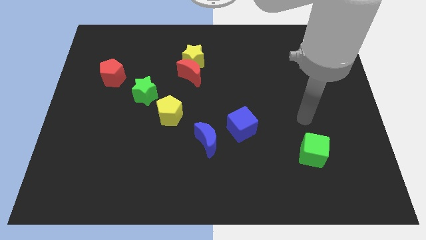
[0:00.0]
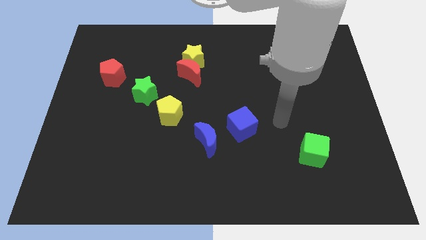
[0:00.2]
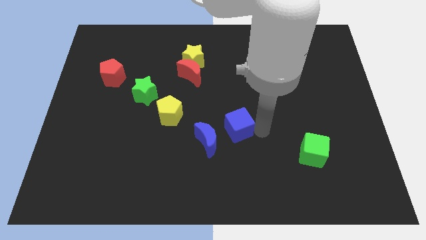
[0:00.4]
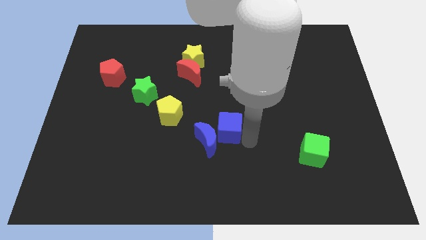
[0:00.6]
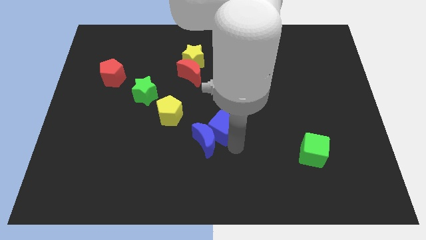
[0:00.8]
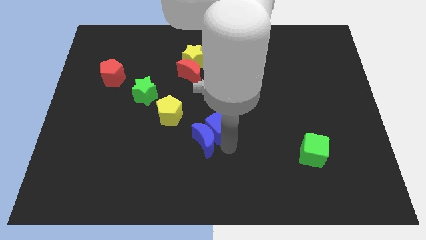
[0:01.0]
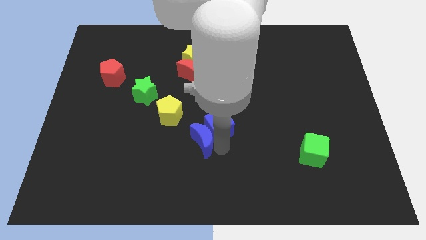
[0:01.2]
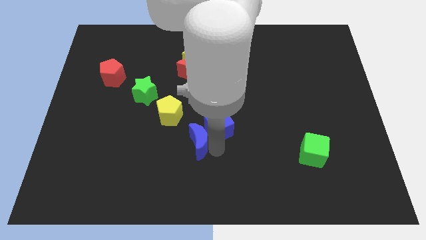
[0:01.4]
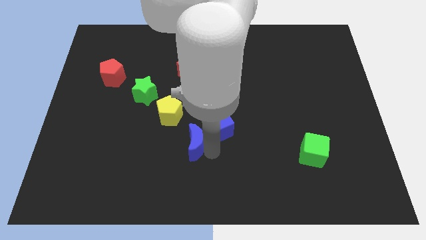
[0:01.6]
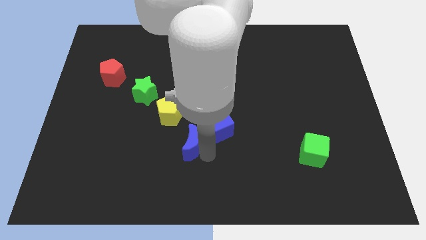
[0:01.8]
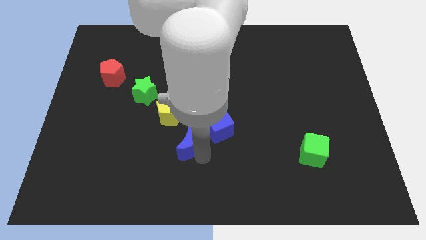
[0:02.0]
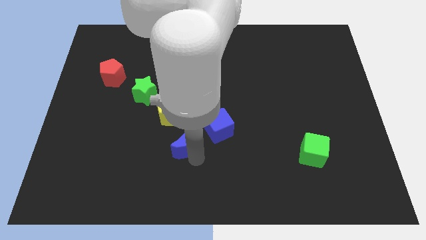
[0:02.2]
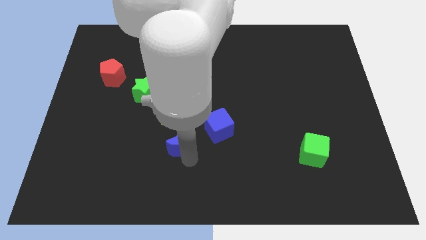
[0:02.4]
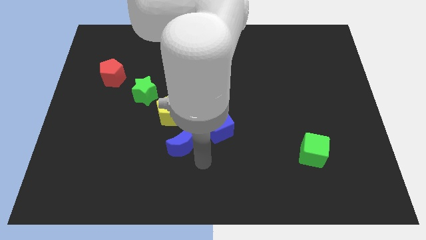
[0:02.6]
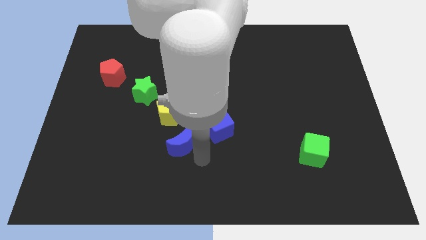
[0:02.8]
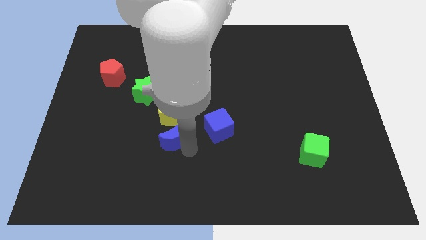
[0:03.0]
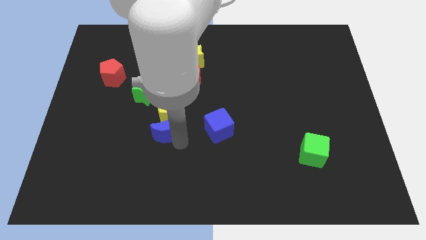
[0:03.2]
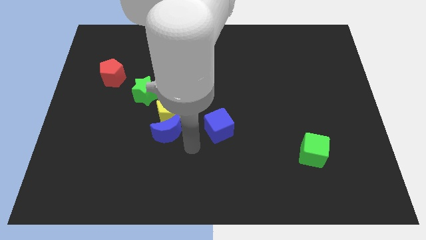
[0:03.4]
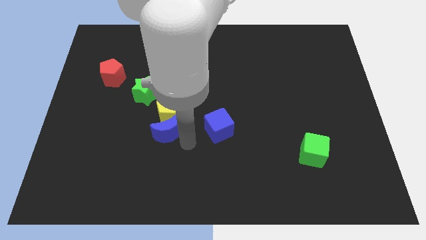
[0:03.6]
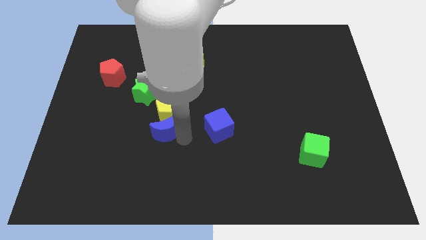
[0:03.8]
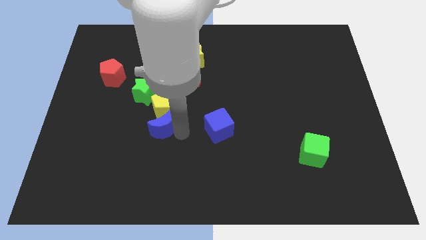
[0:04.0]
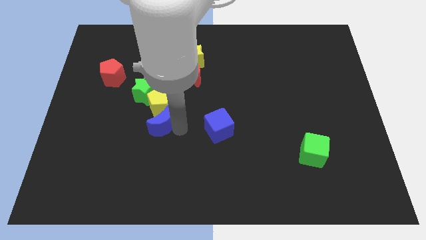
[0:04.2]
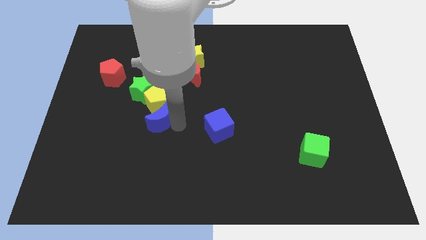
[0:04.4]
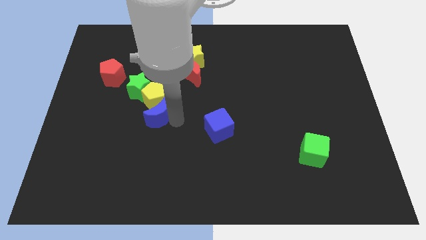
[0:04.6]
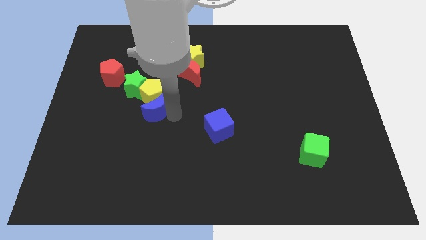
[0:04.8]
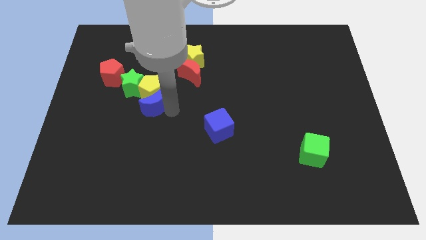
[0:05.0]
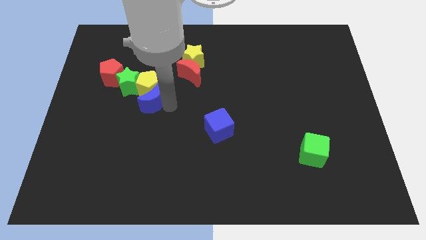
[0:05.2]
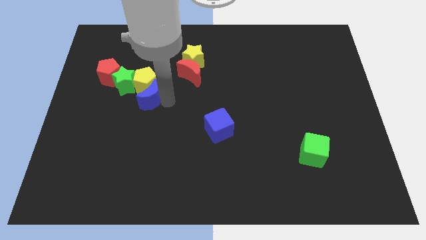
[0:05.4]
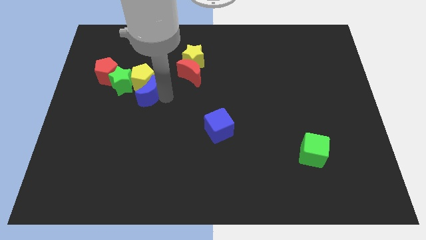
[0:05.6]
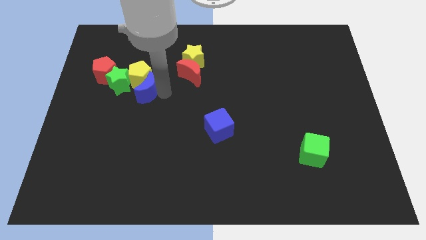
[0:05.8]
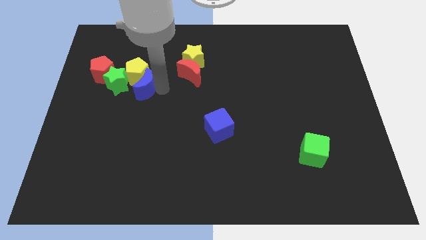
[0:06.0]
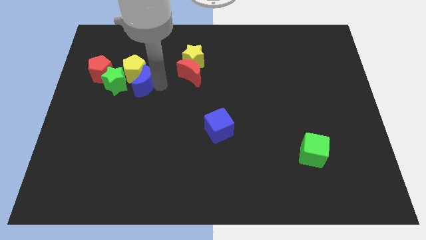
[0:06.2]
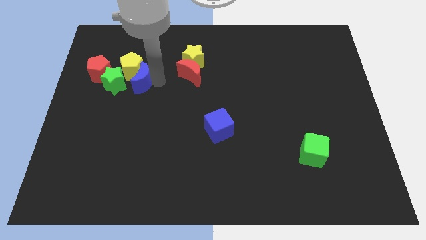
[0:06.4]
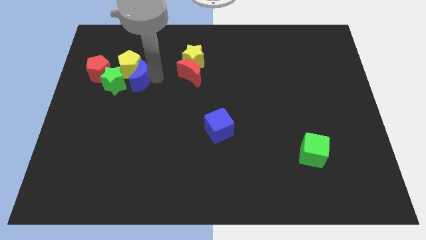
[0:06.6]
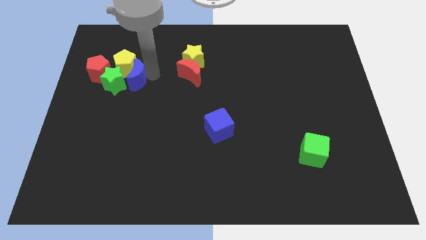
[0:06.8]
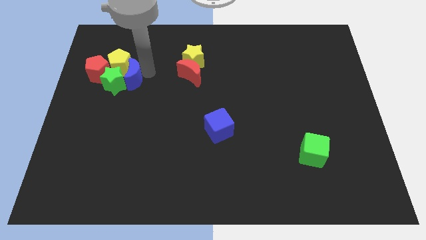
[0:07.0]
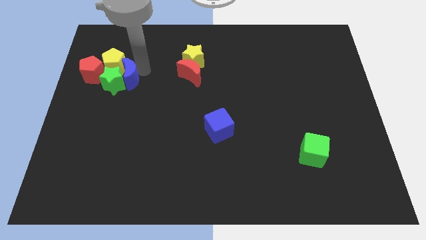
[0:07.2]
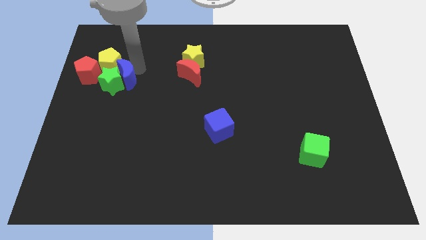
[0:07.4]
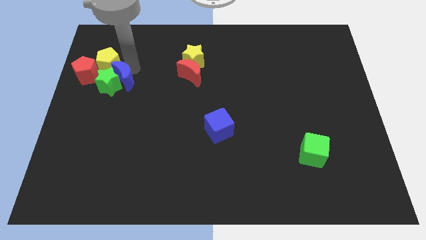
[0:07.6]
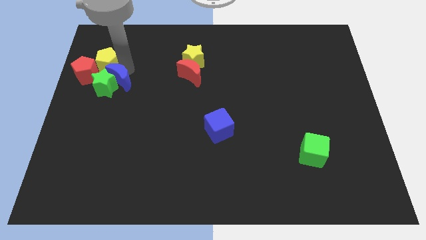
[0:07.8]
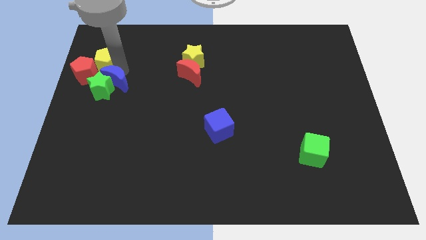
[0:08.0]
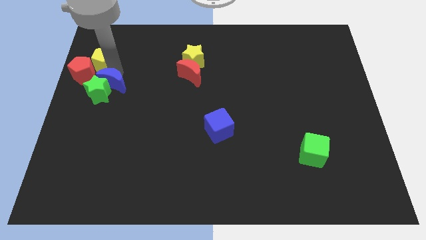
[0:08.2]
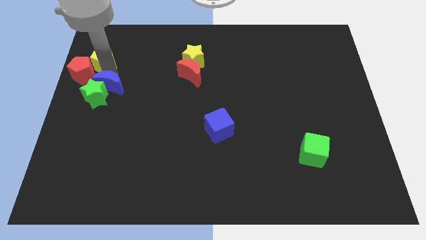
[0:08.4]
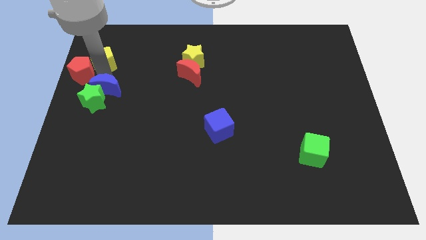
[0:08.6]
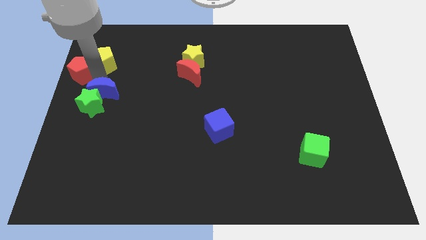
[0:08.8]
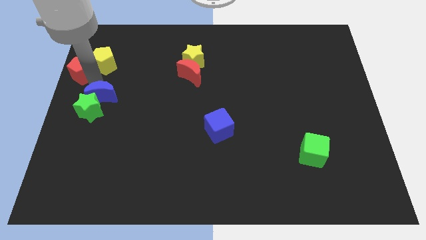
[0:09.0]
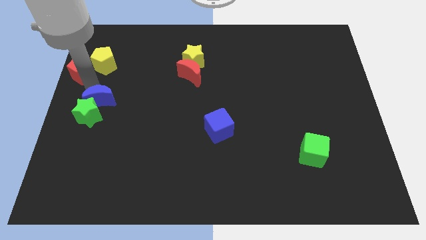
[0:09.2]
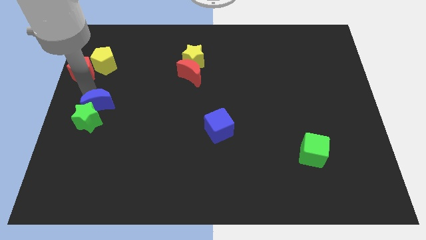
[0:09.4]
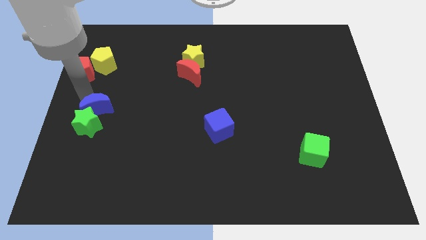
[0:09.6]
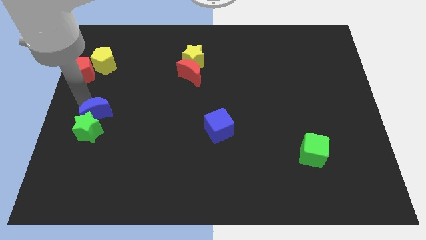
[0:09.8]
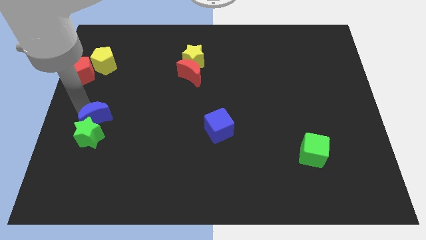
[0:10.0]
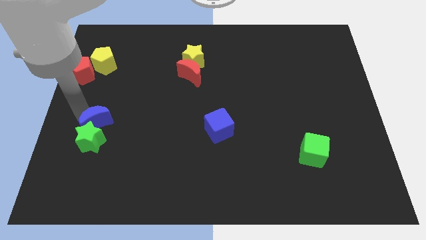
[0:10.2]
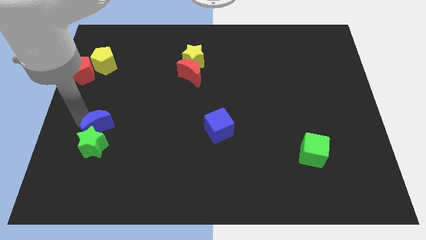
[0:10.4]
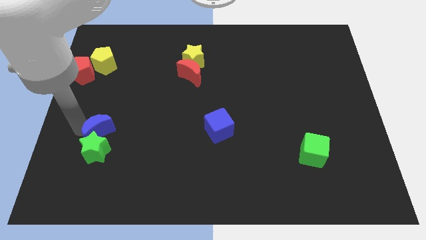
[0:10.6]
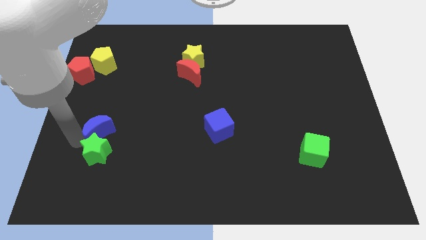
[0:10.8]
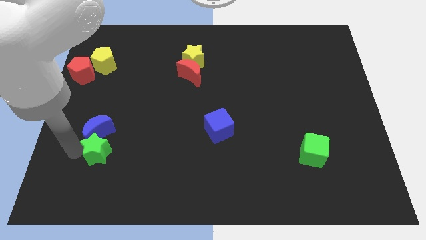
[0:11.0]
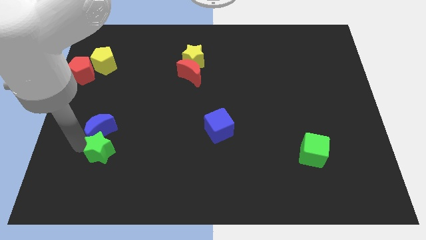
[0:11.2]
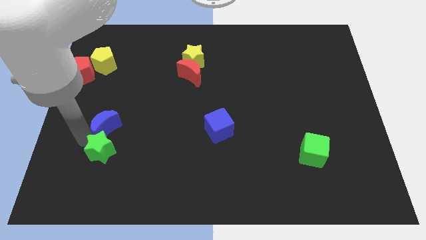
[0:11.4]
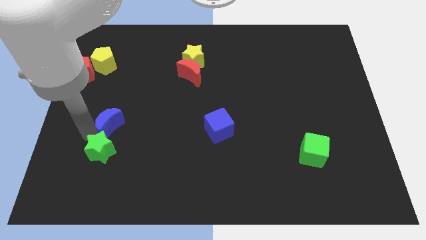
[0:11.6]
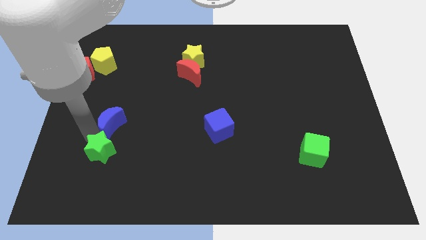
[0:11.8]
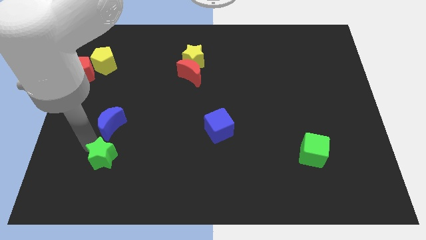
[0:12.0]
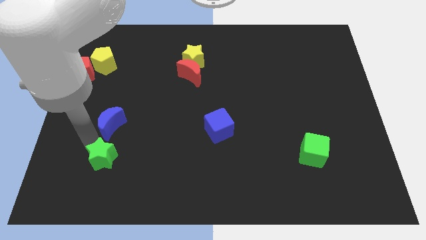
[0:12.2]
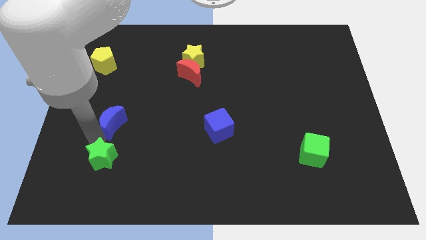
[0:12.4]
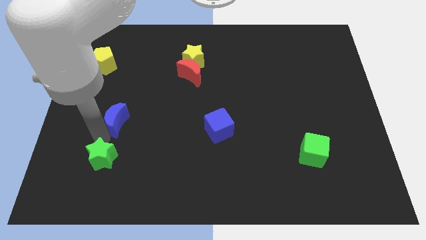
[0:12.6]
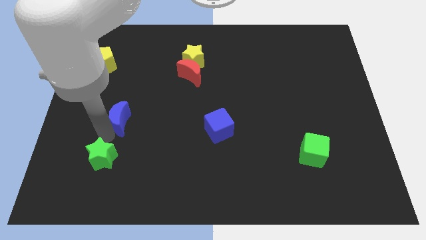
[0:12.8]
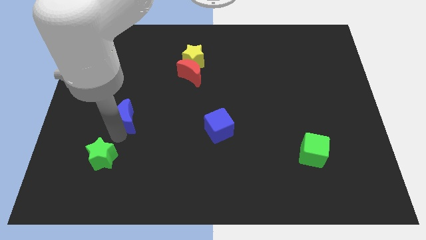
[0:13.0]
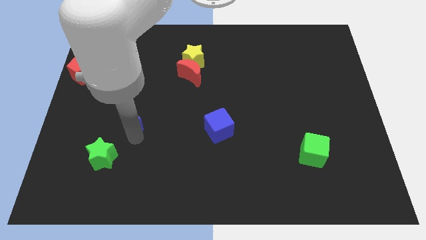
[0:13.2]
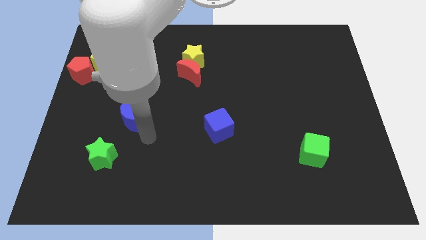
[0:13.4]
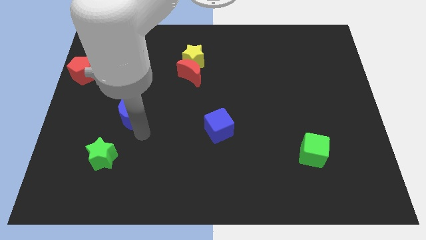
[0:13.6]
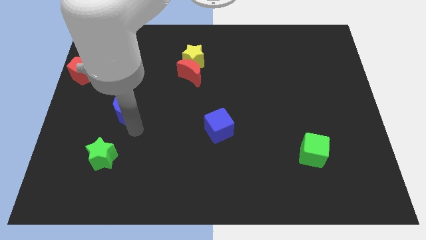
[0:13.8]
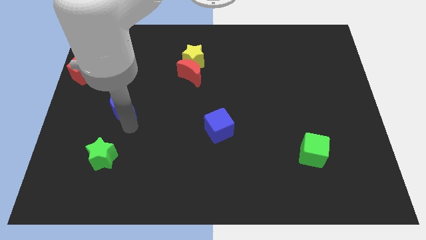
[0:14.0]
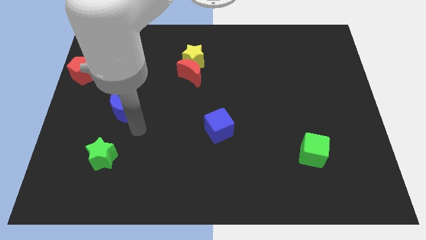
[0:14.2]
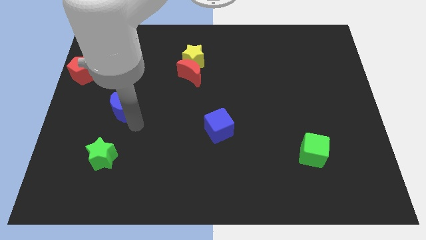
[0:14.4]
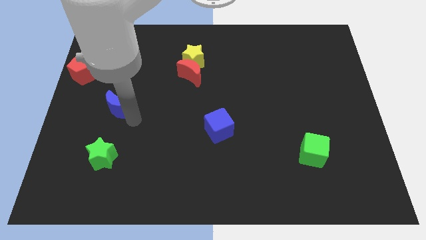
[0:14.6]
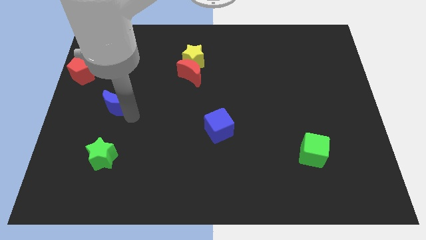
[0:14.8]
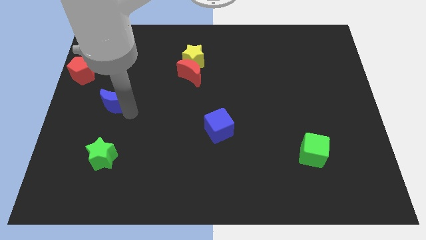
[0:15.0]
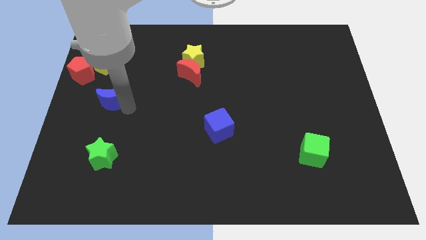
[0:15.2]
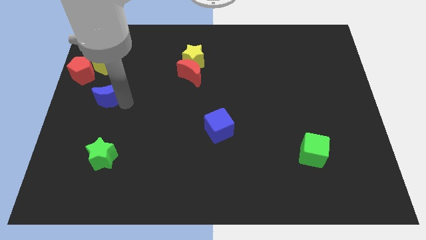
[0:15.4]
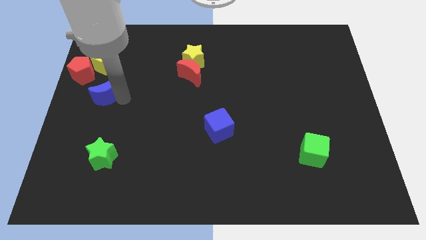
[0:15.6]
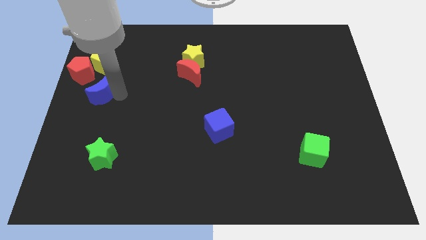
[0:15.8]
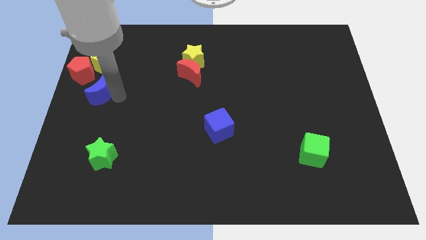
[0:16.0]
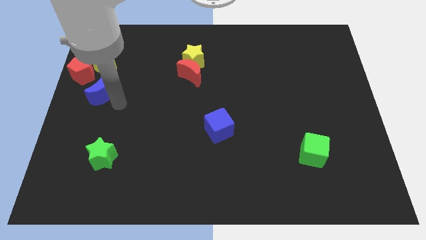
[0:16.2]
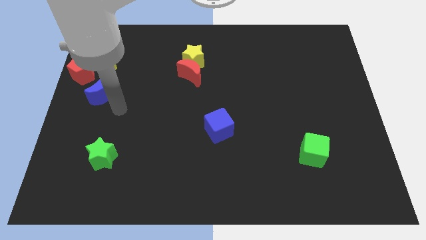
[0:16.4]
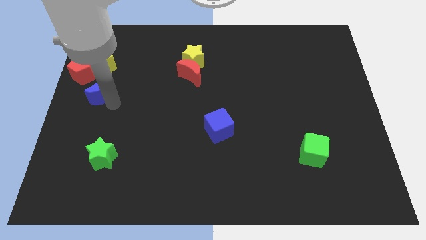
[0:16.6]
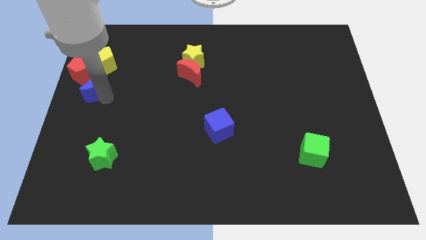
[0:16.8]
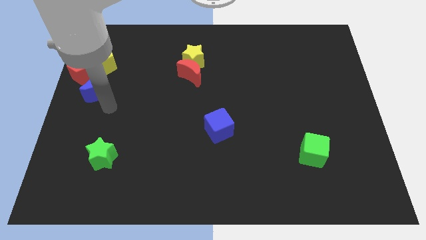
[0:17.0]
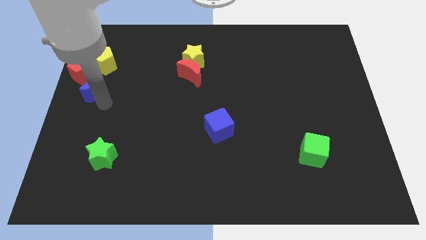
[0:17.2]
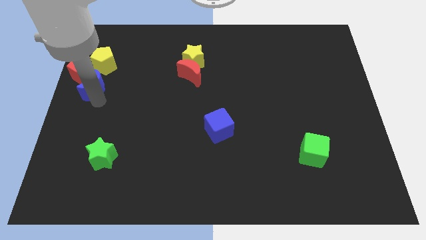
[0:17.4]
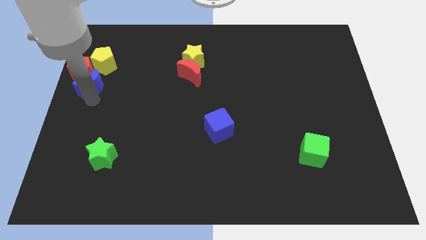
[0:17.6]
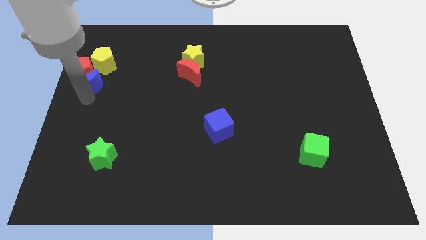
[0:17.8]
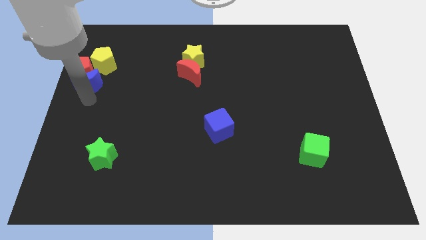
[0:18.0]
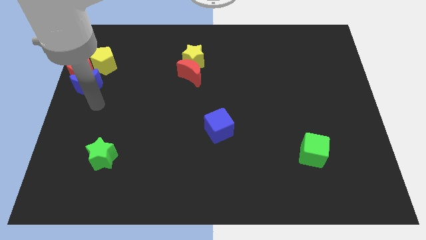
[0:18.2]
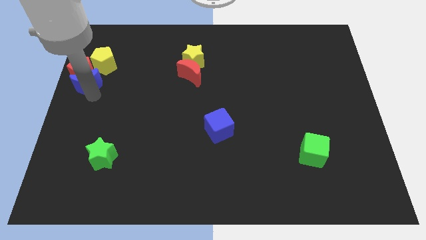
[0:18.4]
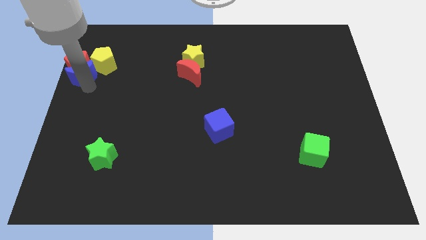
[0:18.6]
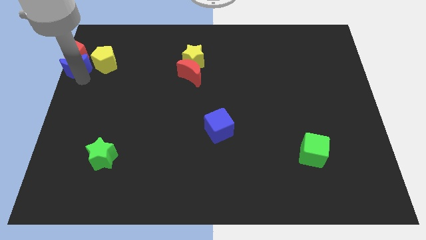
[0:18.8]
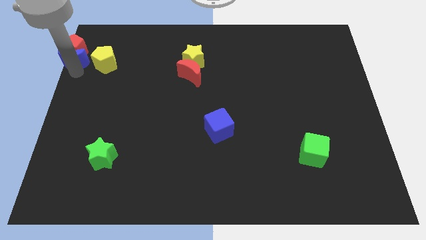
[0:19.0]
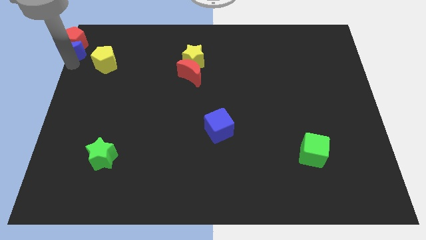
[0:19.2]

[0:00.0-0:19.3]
move the blue moon to the top left corner
